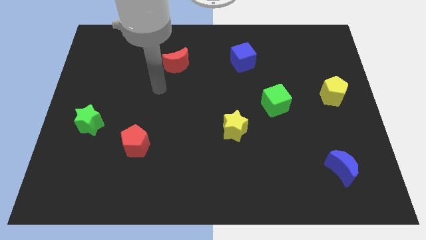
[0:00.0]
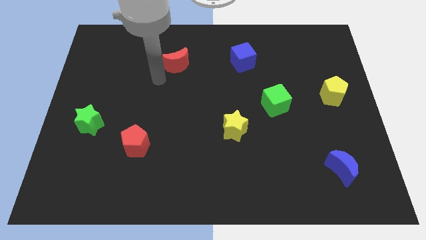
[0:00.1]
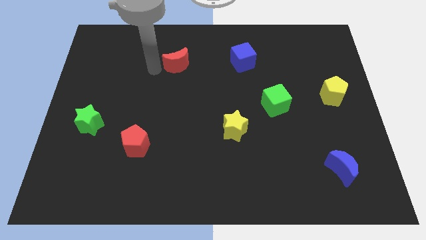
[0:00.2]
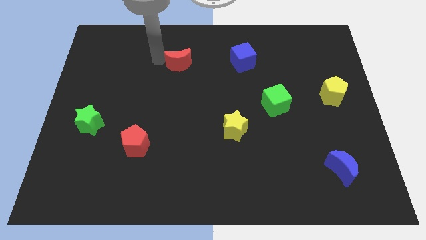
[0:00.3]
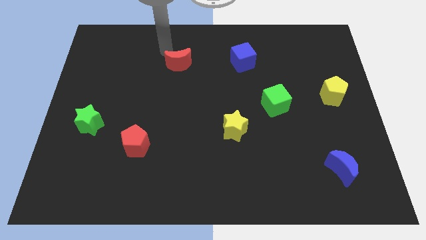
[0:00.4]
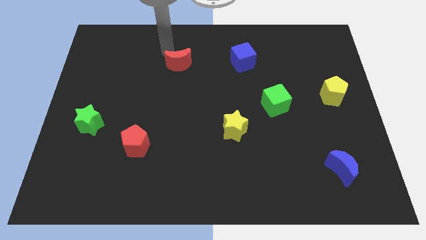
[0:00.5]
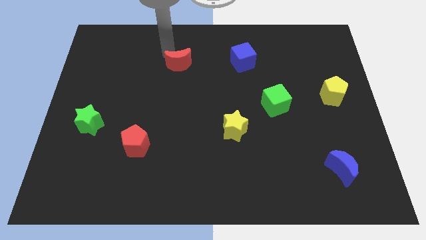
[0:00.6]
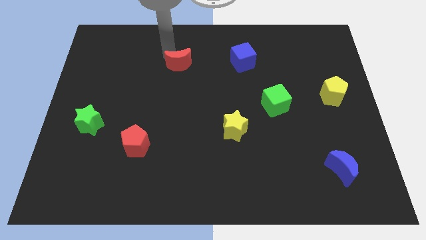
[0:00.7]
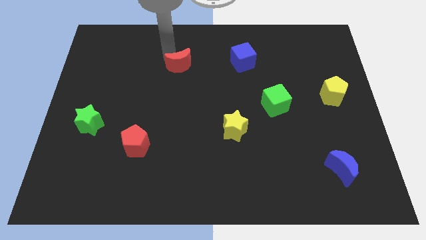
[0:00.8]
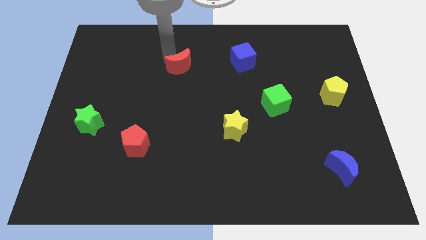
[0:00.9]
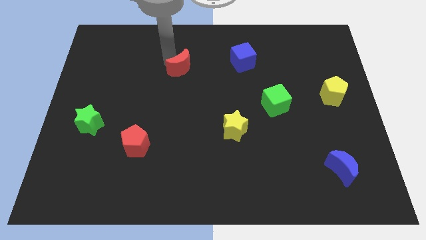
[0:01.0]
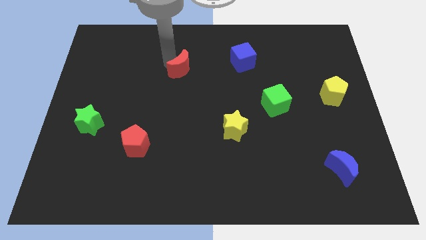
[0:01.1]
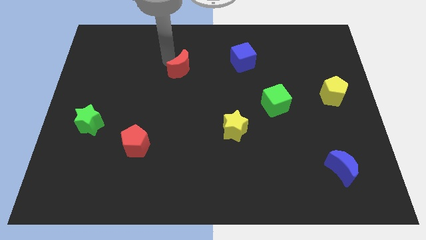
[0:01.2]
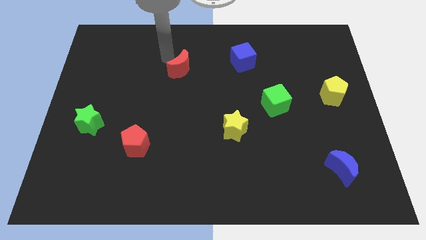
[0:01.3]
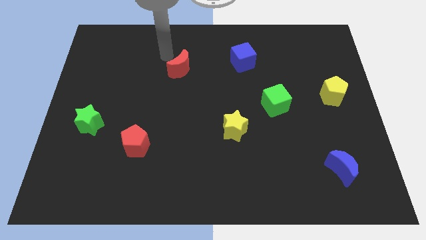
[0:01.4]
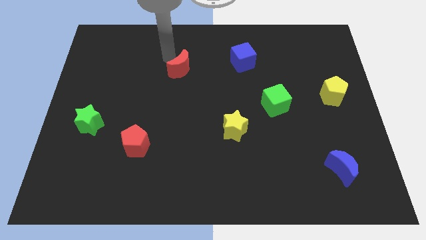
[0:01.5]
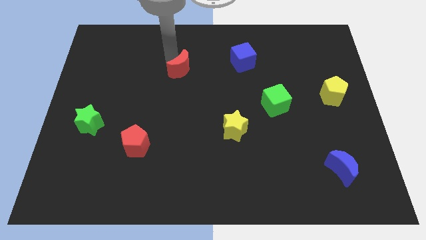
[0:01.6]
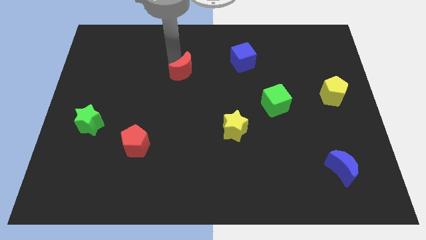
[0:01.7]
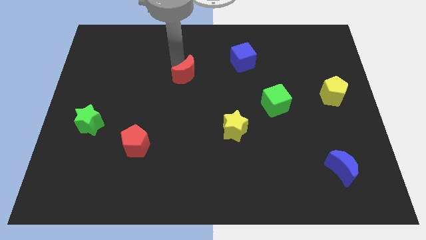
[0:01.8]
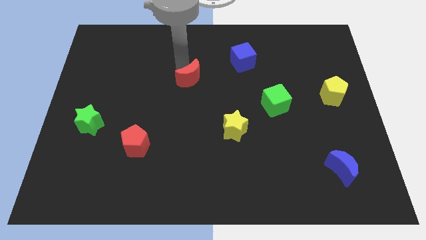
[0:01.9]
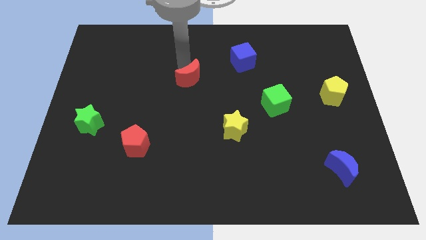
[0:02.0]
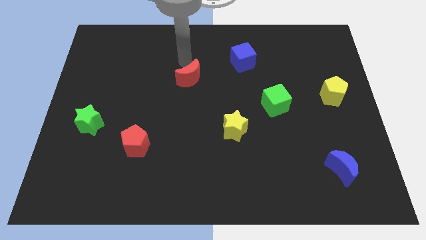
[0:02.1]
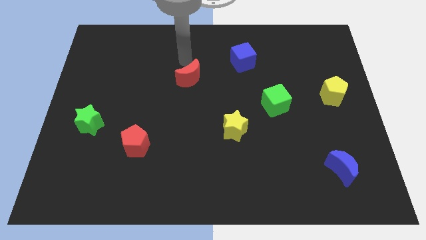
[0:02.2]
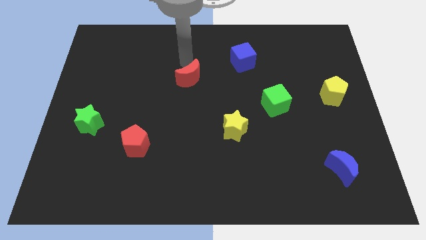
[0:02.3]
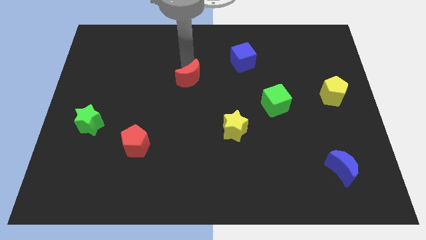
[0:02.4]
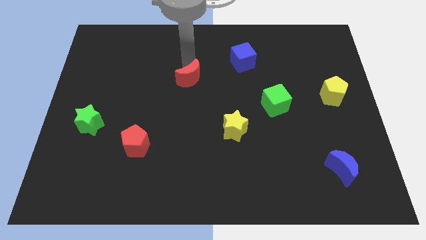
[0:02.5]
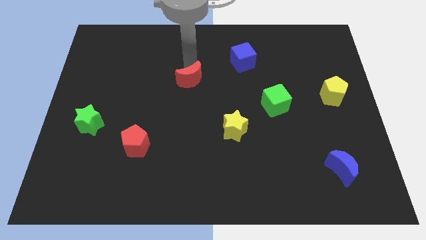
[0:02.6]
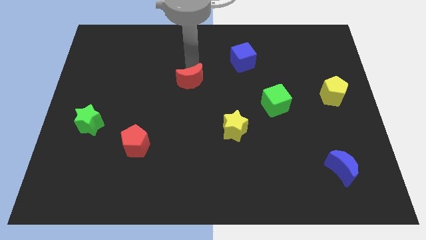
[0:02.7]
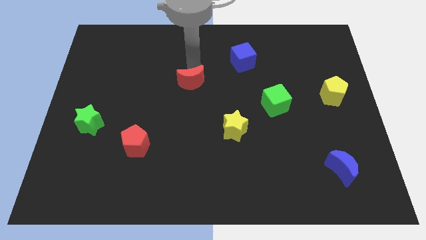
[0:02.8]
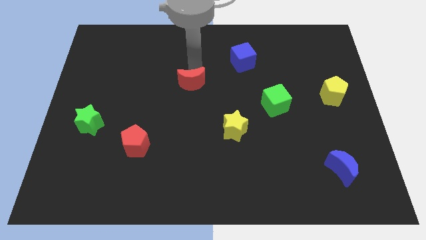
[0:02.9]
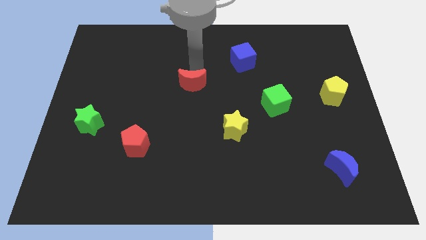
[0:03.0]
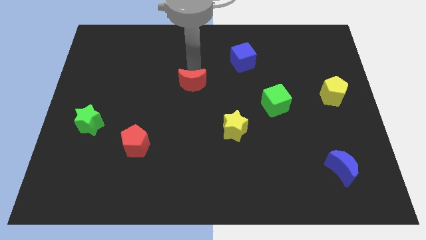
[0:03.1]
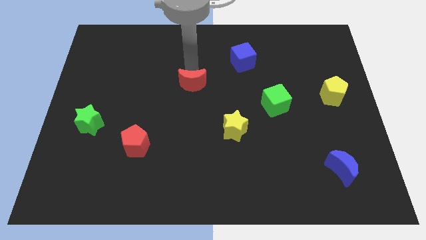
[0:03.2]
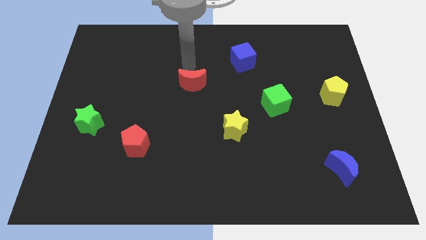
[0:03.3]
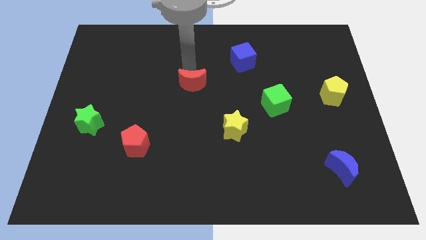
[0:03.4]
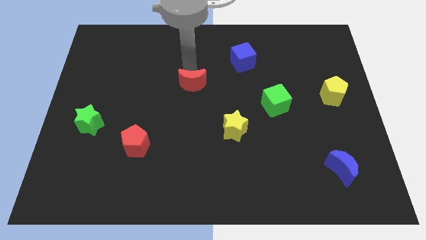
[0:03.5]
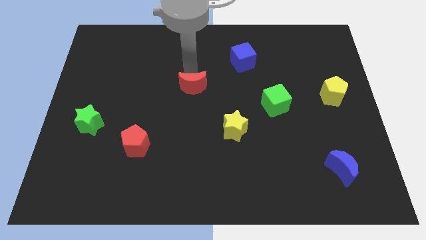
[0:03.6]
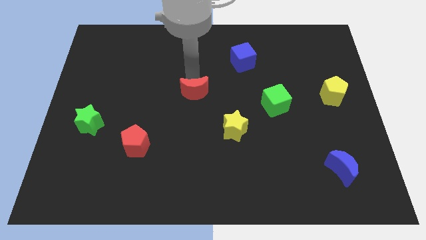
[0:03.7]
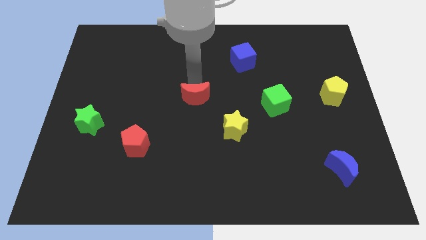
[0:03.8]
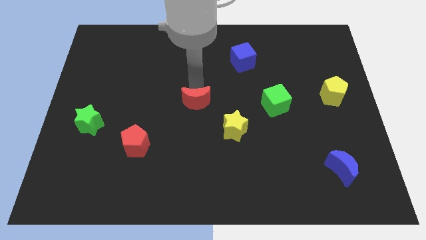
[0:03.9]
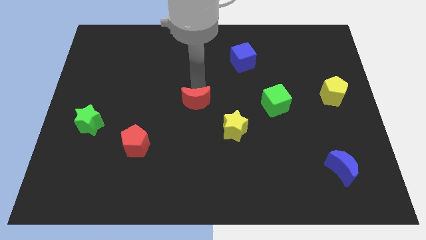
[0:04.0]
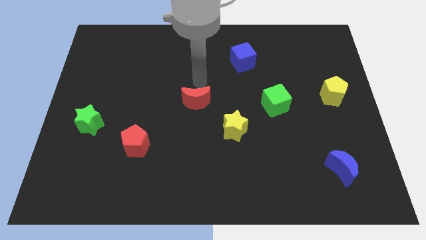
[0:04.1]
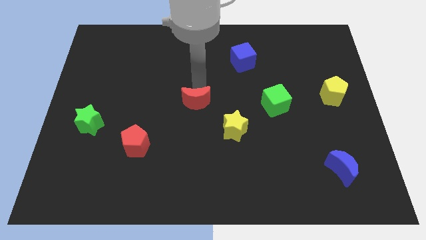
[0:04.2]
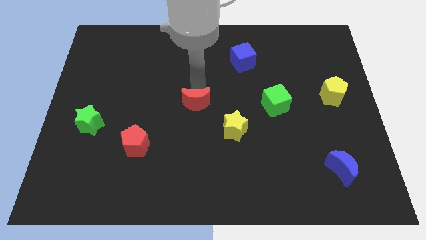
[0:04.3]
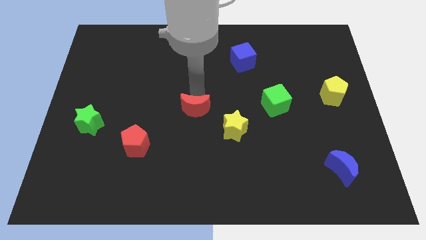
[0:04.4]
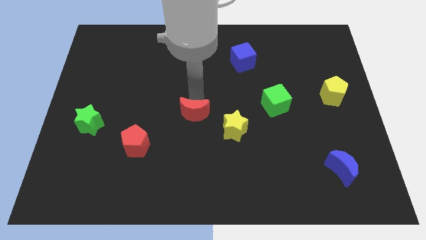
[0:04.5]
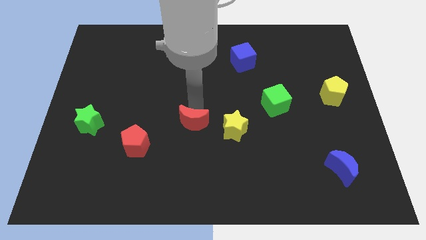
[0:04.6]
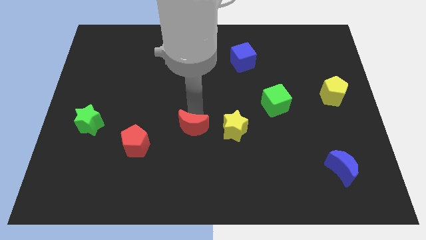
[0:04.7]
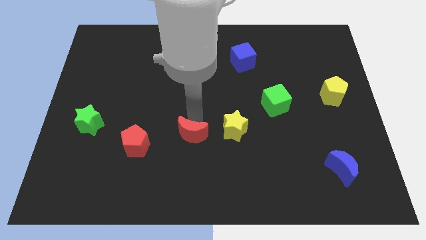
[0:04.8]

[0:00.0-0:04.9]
move the red moon down

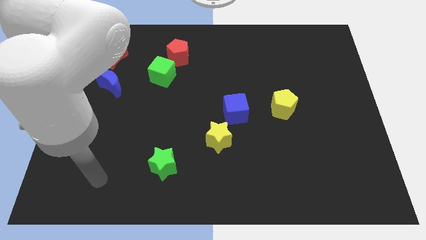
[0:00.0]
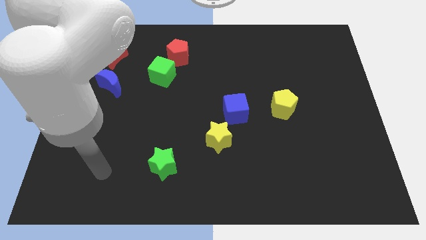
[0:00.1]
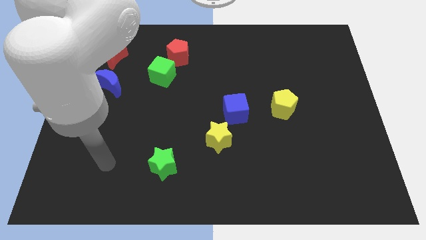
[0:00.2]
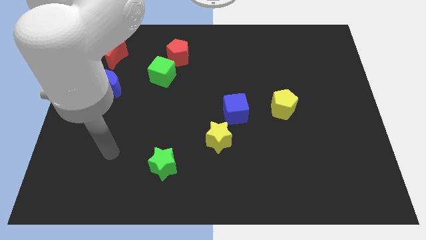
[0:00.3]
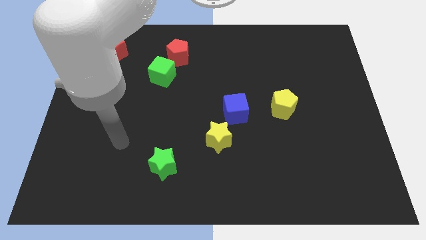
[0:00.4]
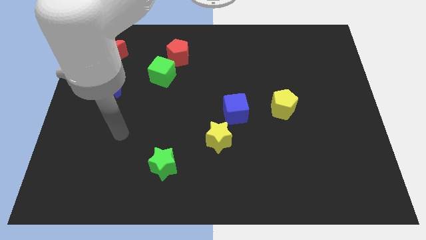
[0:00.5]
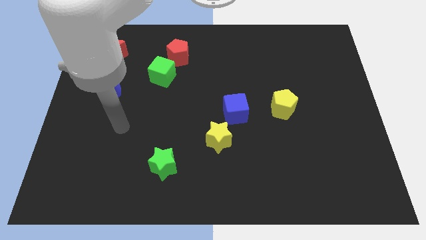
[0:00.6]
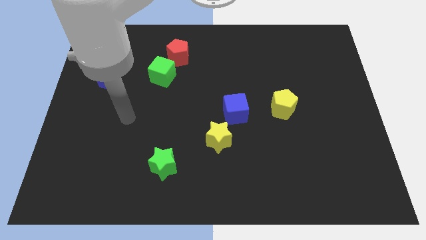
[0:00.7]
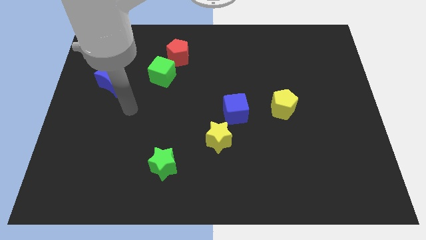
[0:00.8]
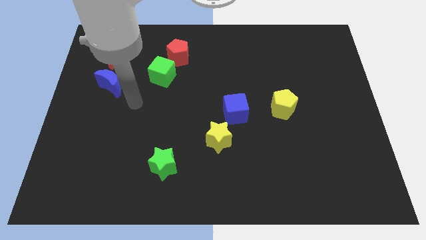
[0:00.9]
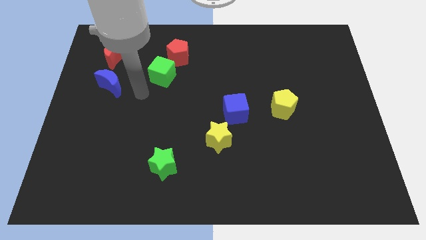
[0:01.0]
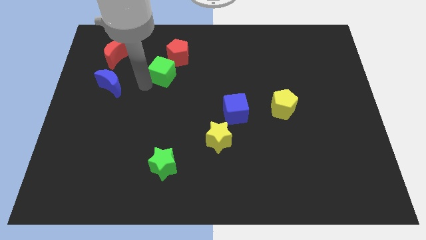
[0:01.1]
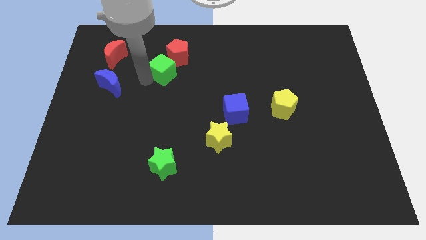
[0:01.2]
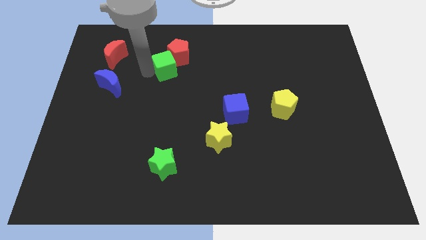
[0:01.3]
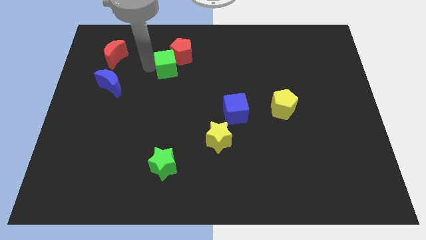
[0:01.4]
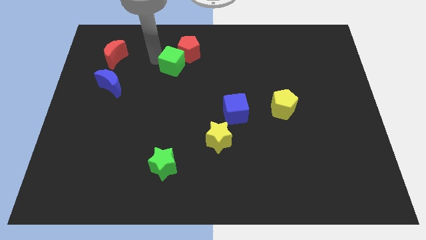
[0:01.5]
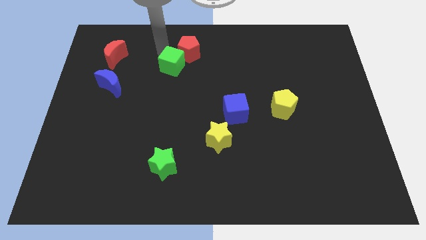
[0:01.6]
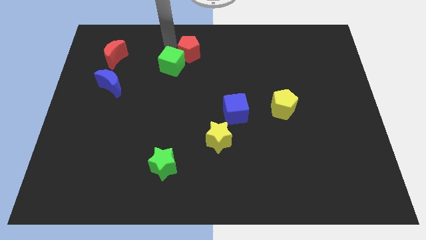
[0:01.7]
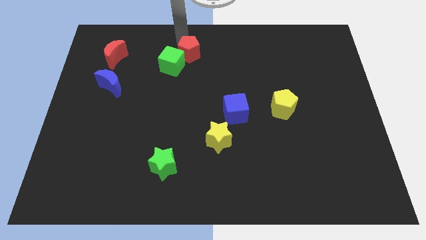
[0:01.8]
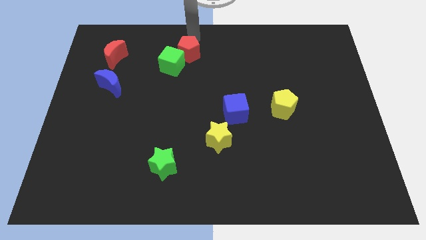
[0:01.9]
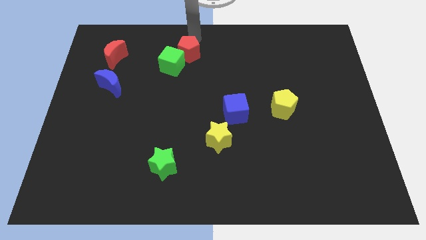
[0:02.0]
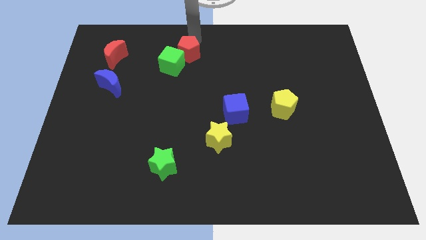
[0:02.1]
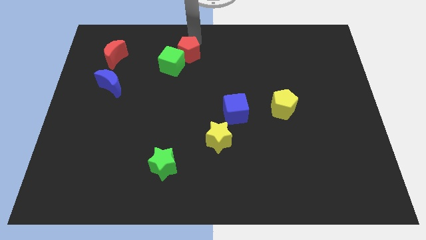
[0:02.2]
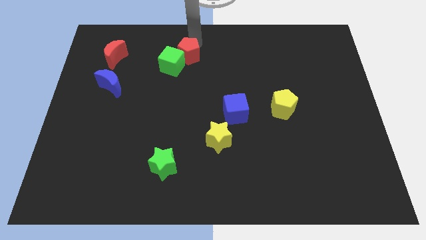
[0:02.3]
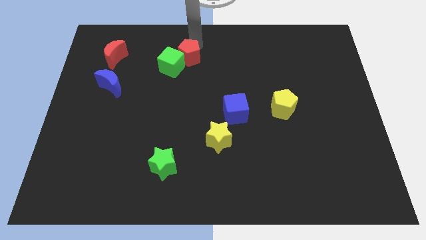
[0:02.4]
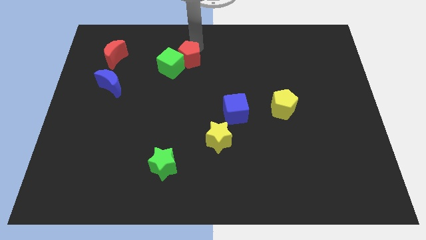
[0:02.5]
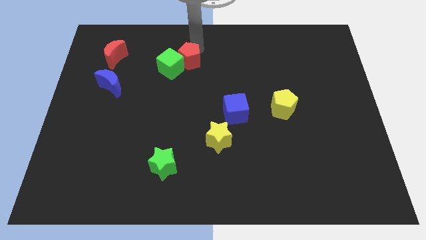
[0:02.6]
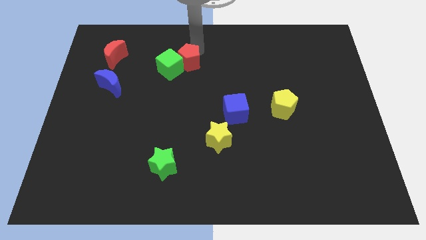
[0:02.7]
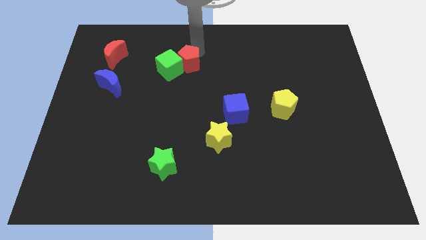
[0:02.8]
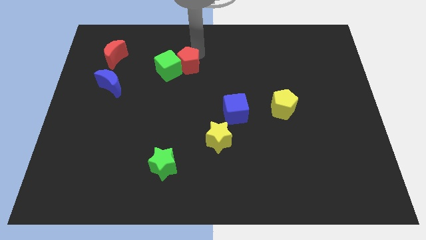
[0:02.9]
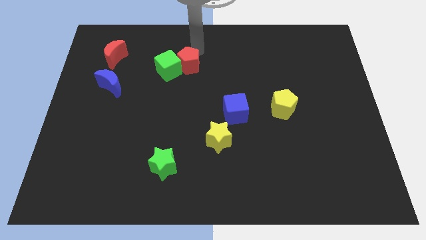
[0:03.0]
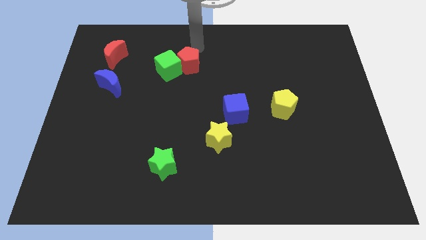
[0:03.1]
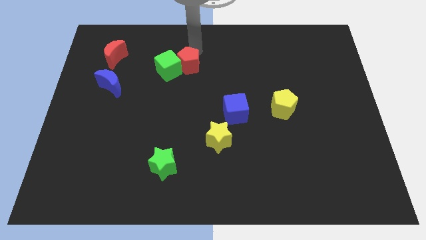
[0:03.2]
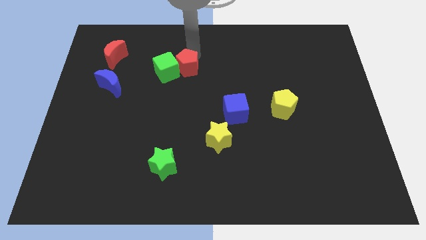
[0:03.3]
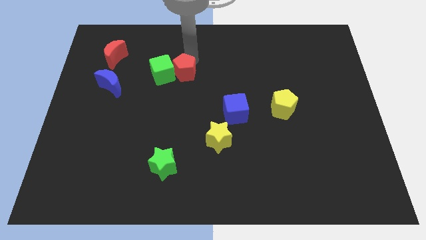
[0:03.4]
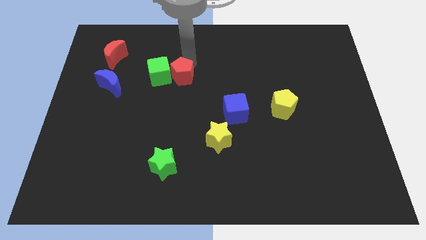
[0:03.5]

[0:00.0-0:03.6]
slightly slide the red pentagon down
